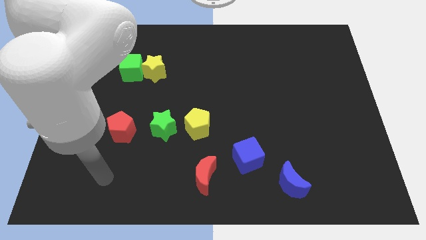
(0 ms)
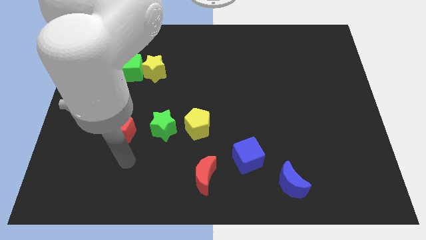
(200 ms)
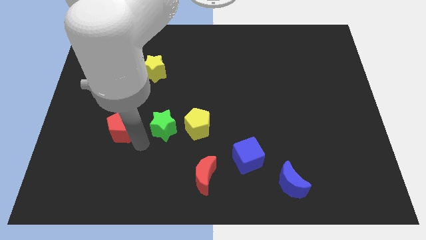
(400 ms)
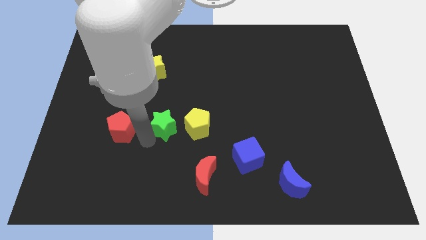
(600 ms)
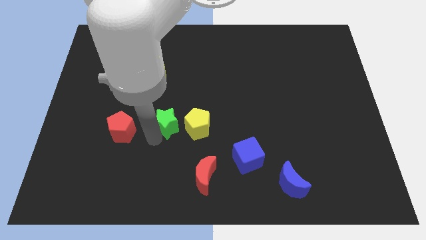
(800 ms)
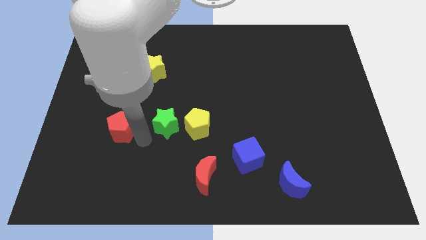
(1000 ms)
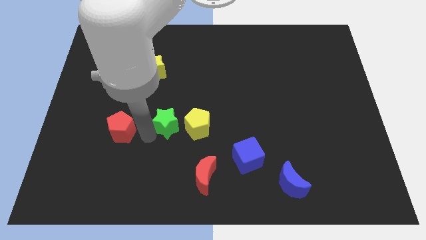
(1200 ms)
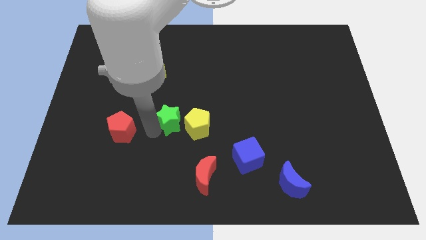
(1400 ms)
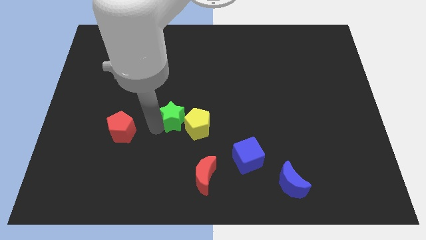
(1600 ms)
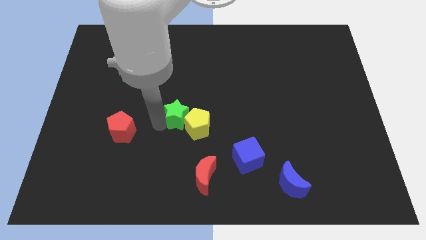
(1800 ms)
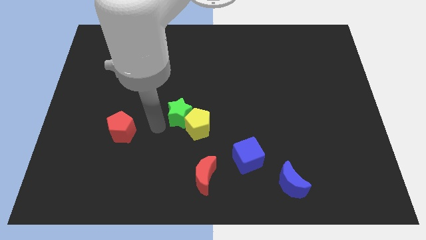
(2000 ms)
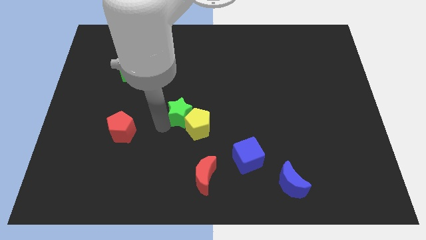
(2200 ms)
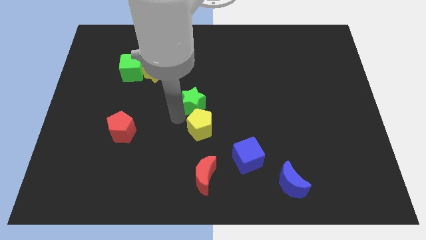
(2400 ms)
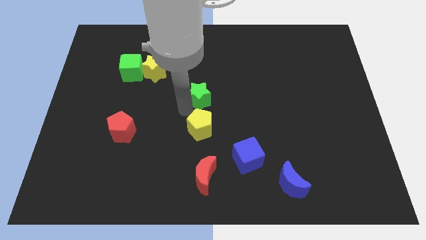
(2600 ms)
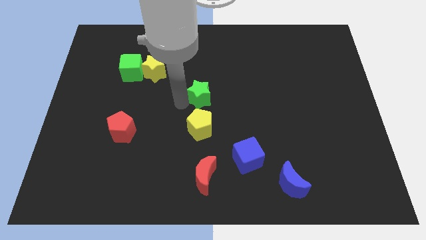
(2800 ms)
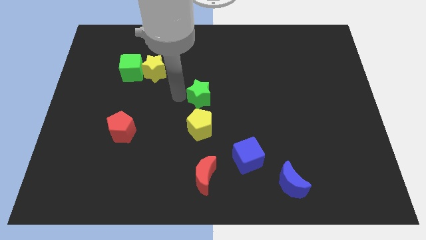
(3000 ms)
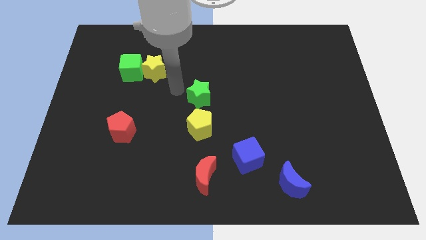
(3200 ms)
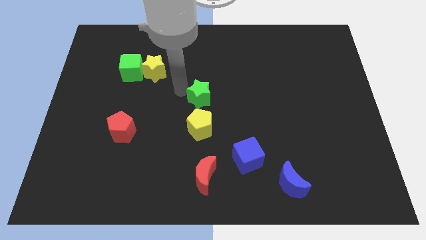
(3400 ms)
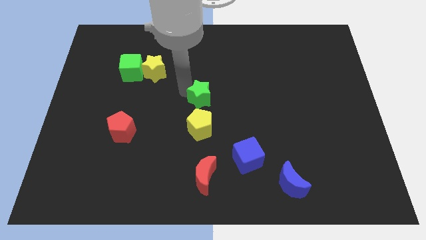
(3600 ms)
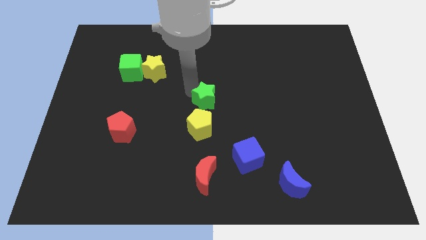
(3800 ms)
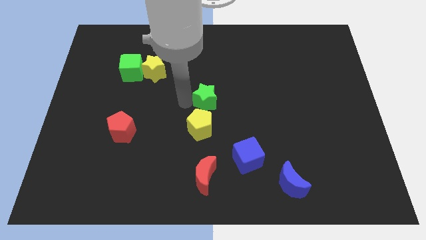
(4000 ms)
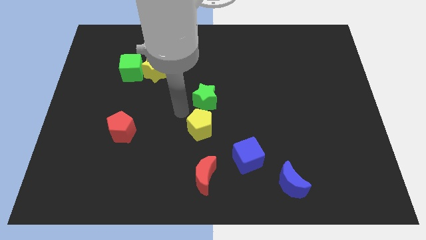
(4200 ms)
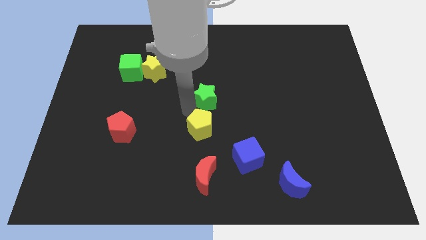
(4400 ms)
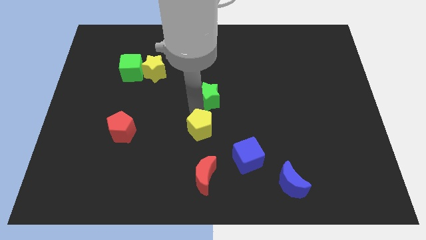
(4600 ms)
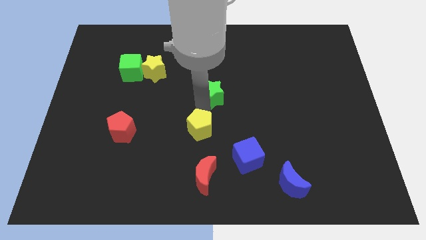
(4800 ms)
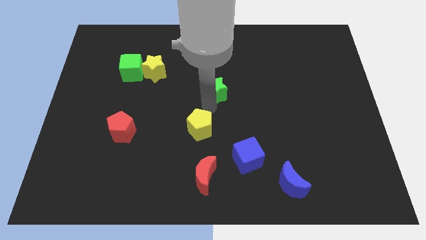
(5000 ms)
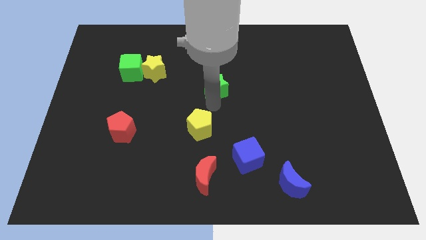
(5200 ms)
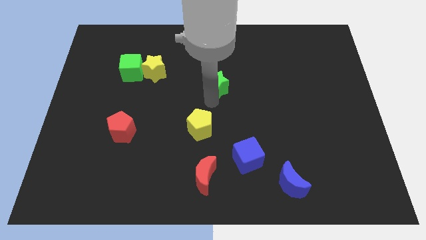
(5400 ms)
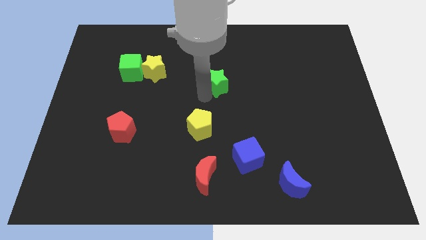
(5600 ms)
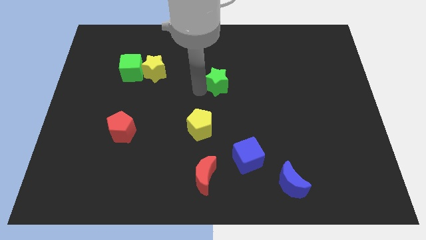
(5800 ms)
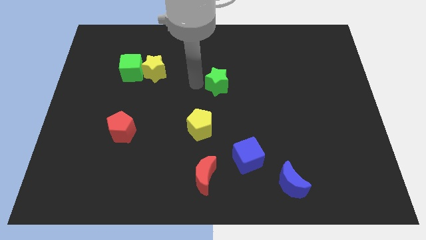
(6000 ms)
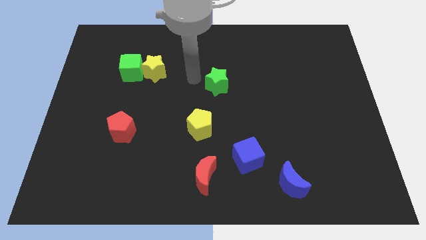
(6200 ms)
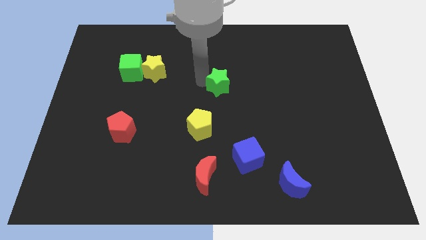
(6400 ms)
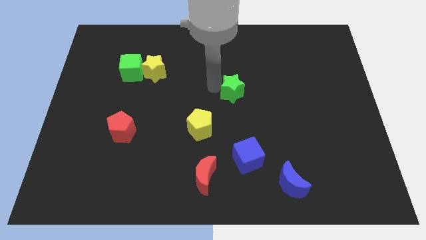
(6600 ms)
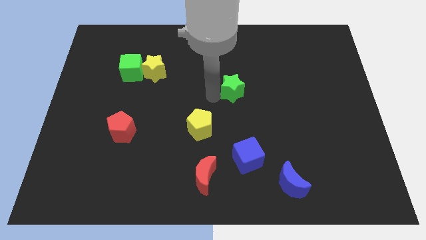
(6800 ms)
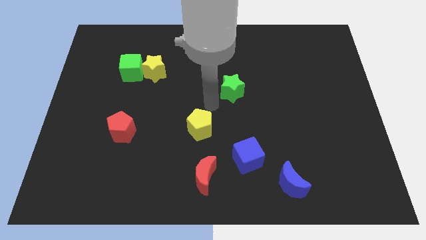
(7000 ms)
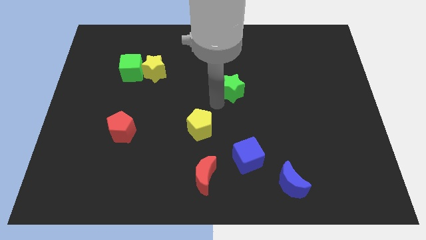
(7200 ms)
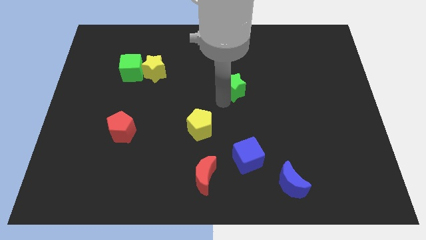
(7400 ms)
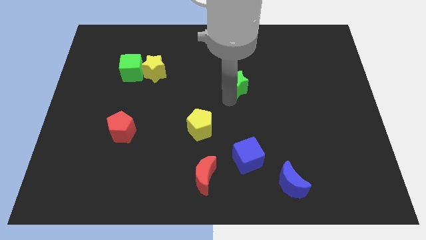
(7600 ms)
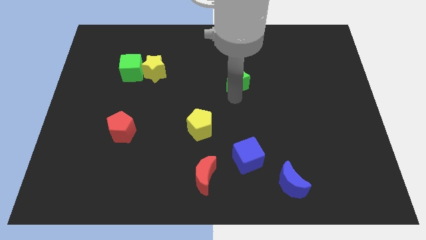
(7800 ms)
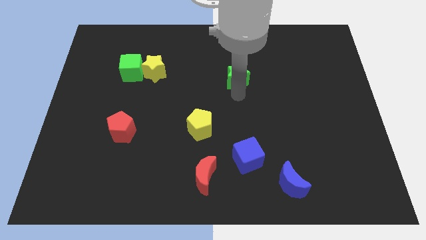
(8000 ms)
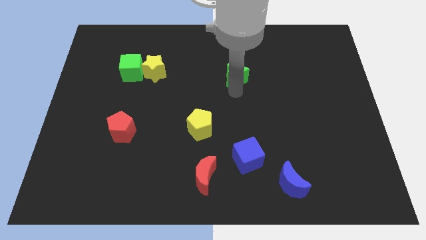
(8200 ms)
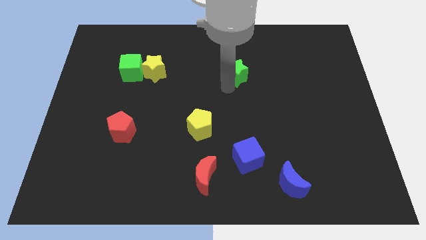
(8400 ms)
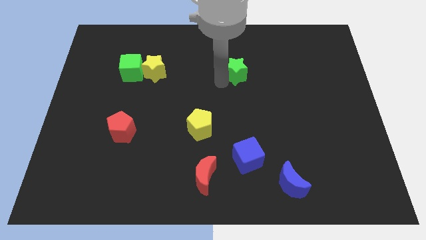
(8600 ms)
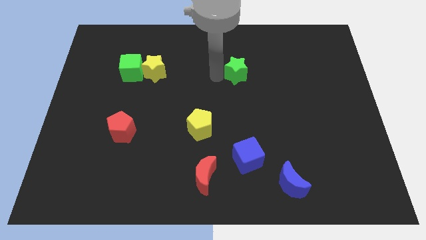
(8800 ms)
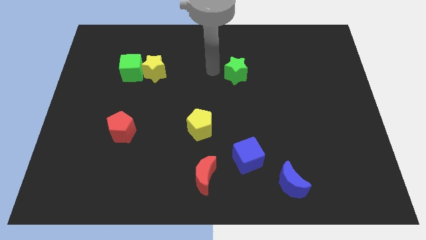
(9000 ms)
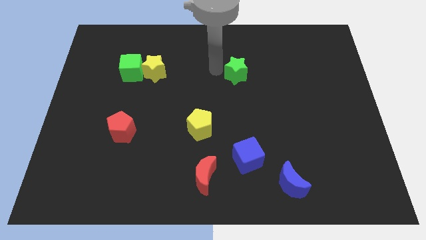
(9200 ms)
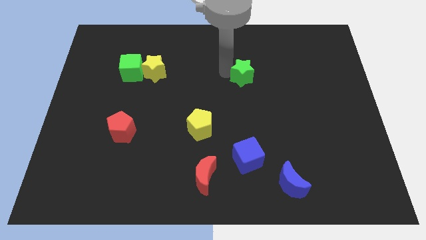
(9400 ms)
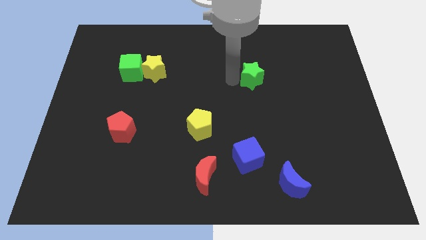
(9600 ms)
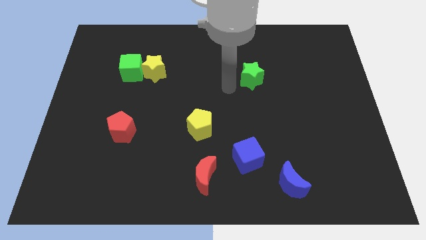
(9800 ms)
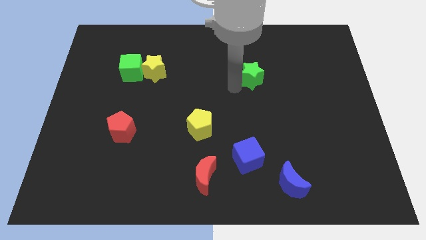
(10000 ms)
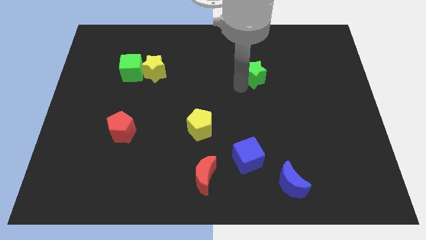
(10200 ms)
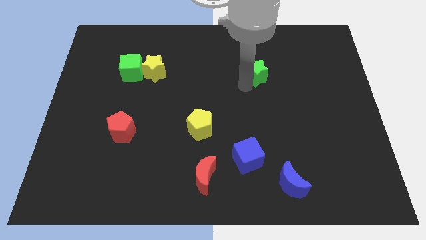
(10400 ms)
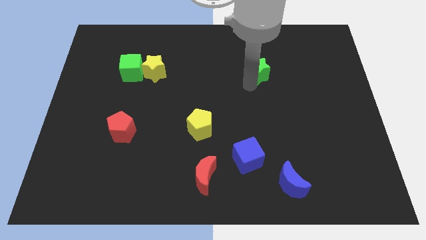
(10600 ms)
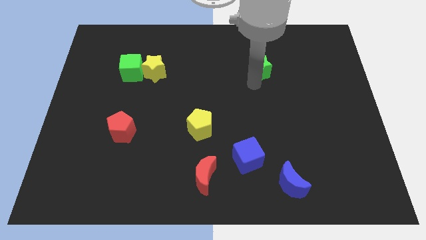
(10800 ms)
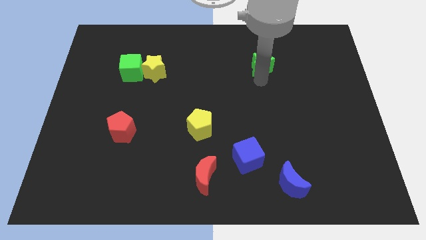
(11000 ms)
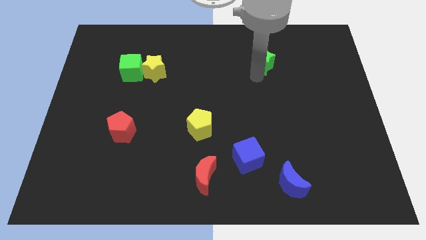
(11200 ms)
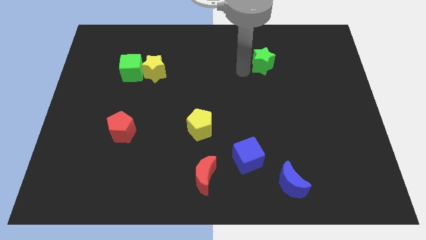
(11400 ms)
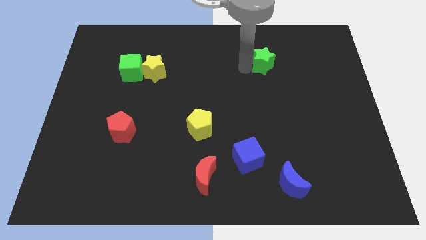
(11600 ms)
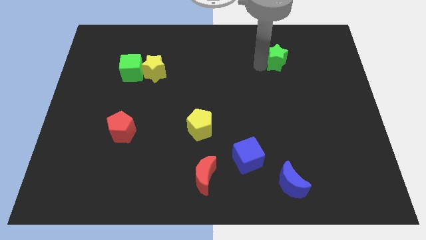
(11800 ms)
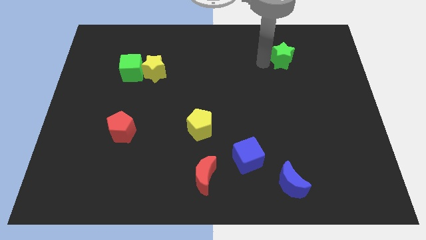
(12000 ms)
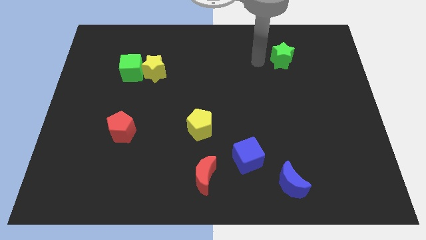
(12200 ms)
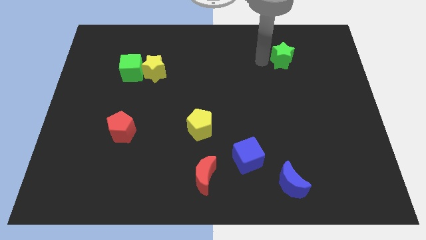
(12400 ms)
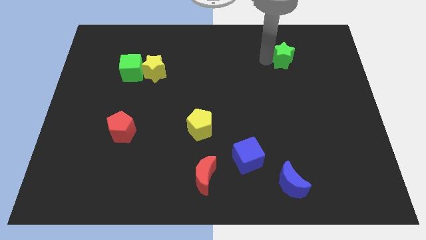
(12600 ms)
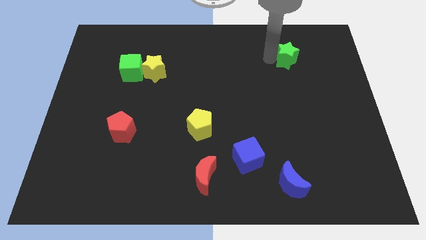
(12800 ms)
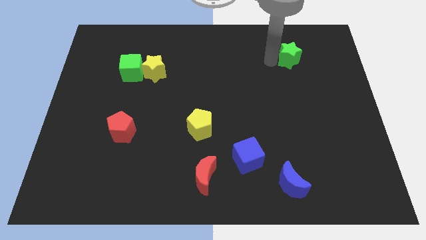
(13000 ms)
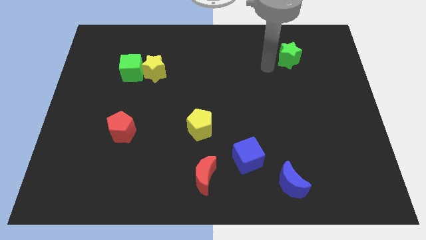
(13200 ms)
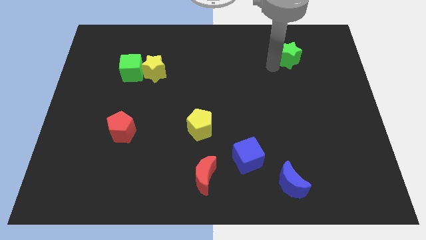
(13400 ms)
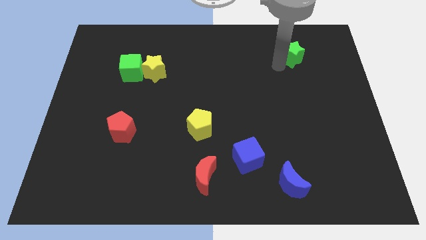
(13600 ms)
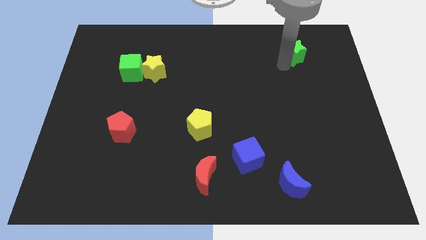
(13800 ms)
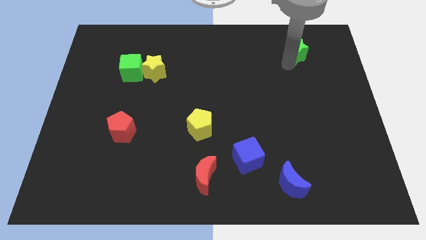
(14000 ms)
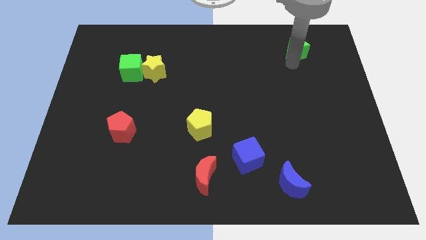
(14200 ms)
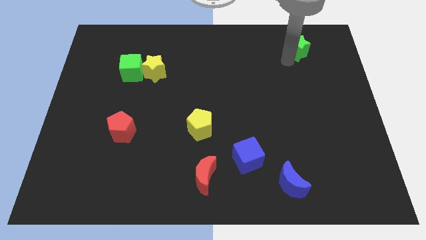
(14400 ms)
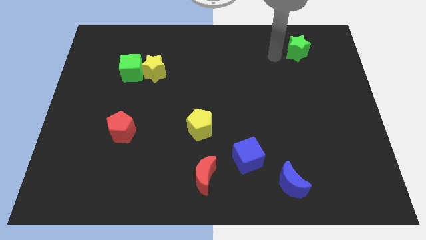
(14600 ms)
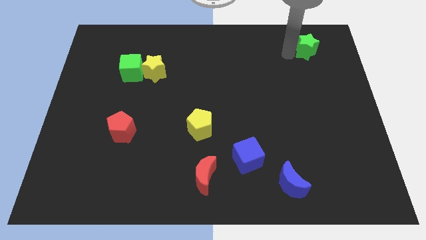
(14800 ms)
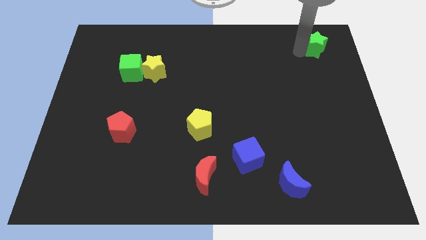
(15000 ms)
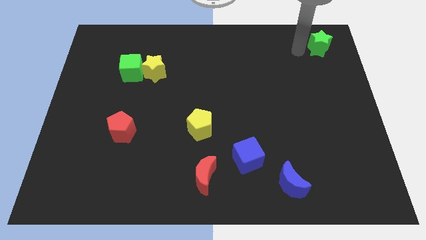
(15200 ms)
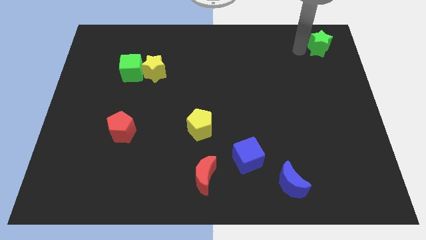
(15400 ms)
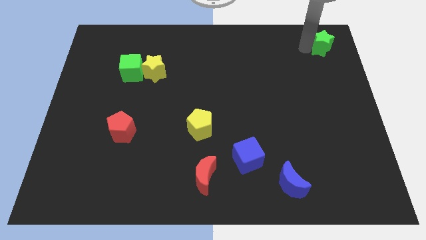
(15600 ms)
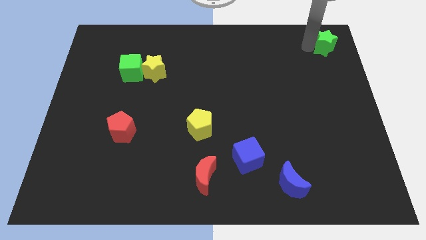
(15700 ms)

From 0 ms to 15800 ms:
put the green star to the top right
